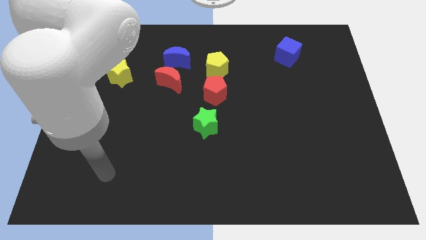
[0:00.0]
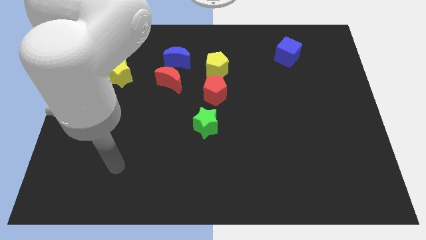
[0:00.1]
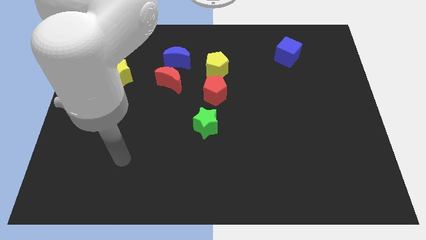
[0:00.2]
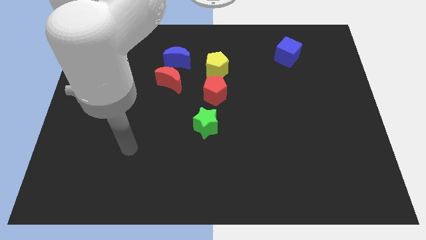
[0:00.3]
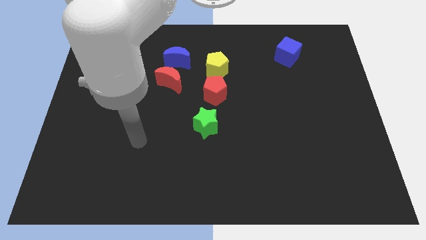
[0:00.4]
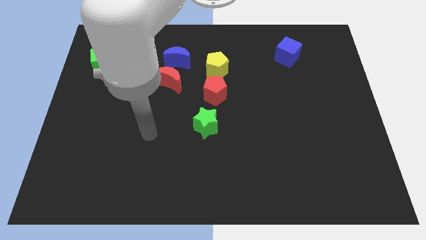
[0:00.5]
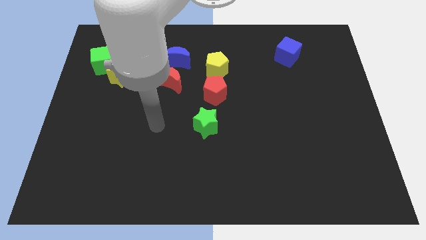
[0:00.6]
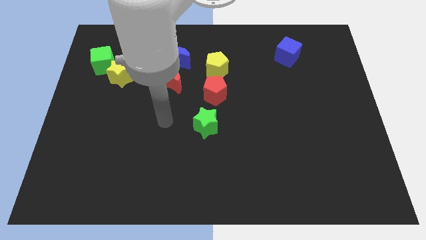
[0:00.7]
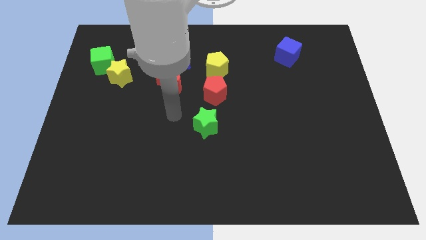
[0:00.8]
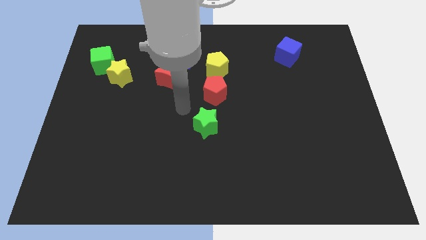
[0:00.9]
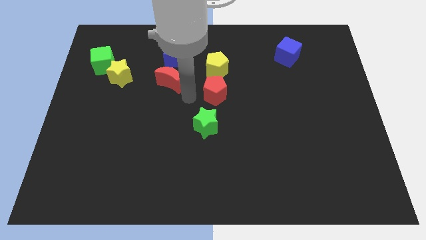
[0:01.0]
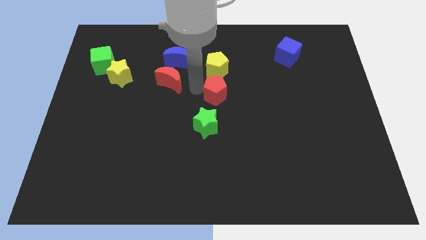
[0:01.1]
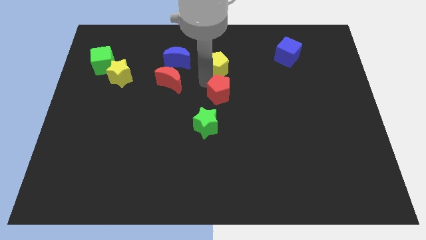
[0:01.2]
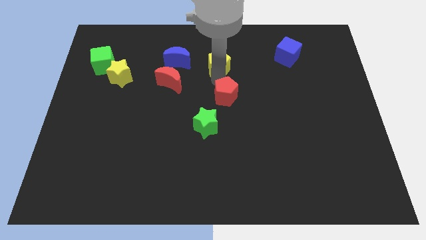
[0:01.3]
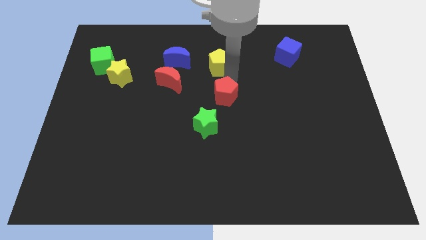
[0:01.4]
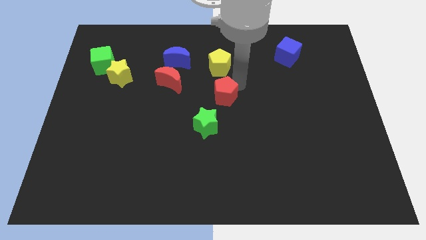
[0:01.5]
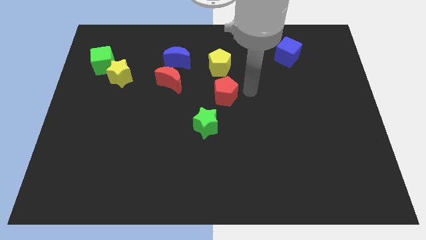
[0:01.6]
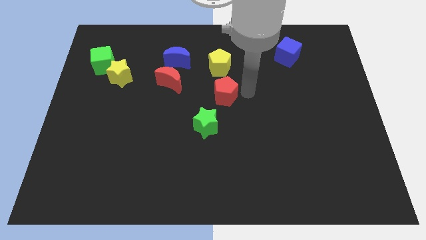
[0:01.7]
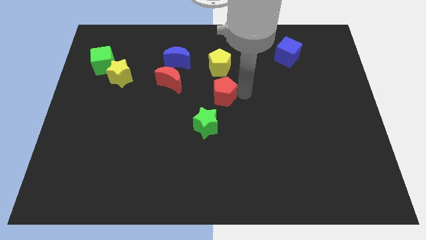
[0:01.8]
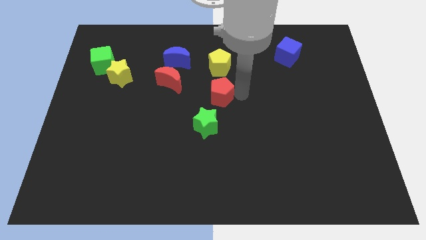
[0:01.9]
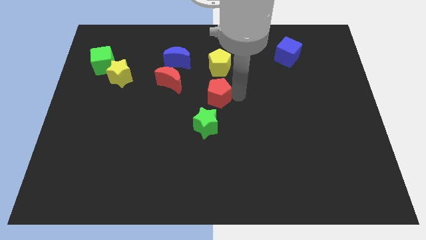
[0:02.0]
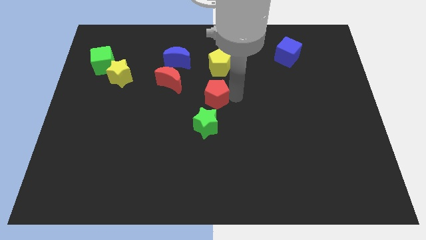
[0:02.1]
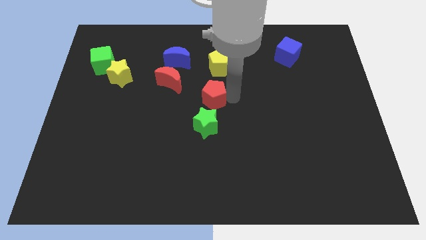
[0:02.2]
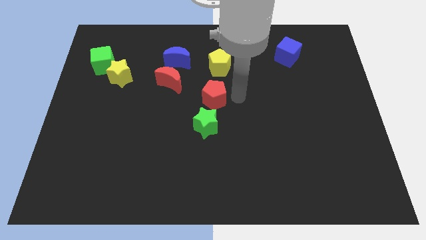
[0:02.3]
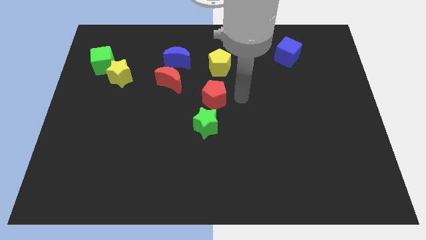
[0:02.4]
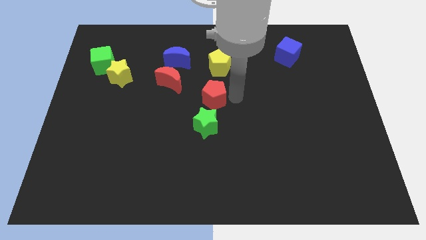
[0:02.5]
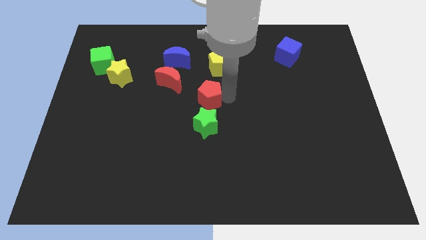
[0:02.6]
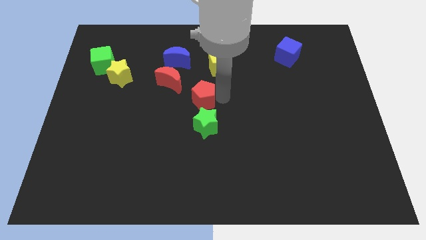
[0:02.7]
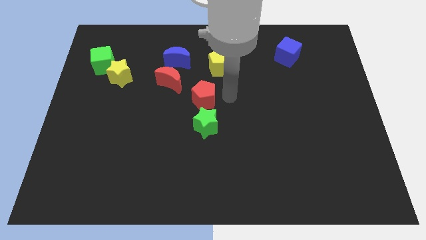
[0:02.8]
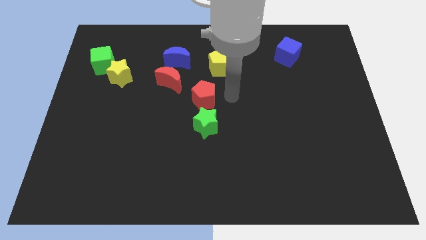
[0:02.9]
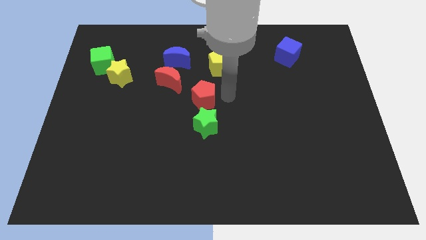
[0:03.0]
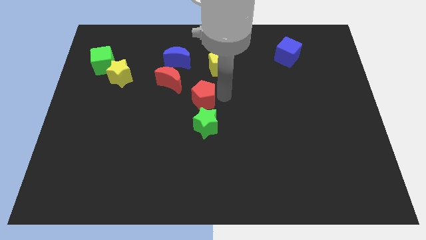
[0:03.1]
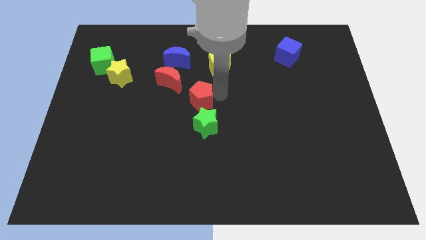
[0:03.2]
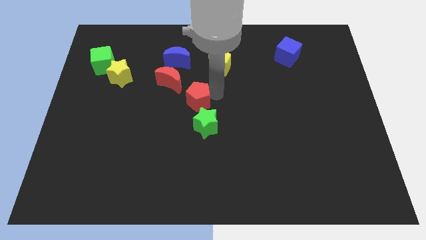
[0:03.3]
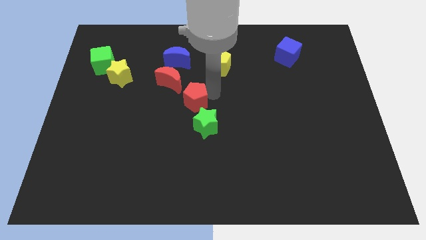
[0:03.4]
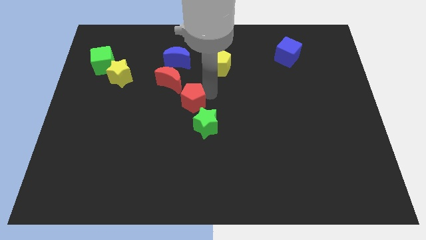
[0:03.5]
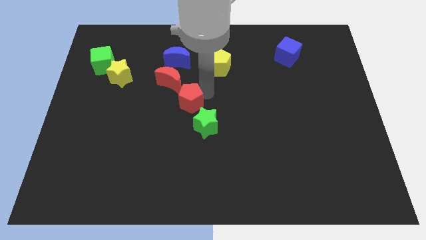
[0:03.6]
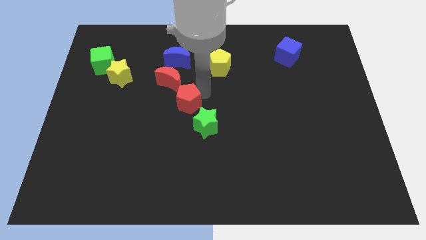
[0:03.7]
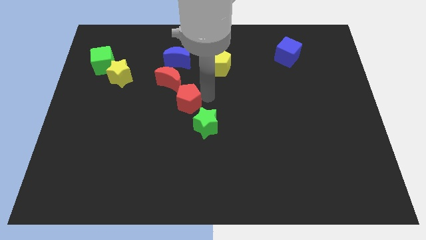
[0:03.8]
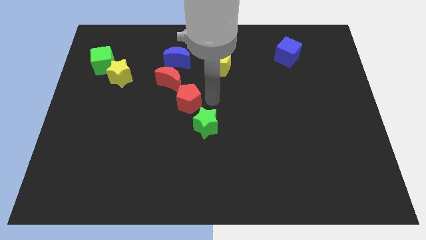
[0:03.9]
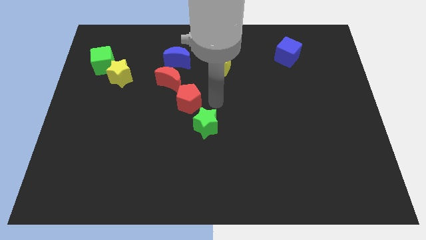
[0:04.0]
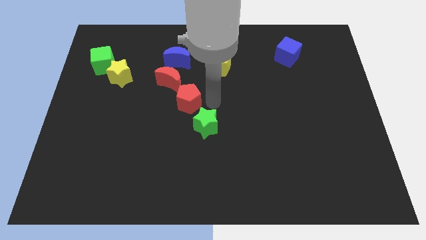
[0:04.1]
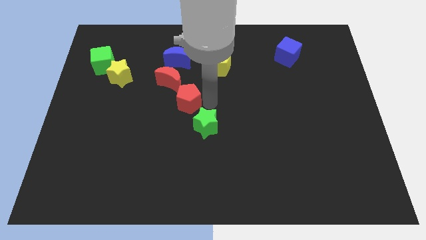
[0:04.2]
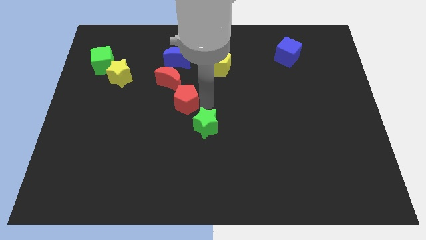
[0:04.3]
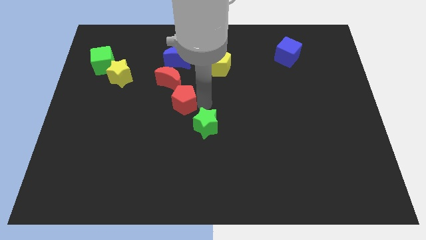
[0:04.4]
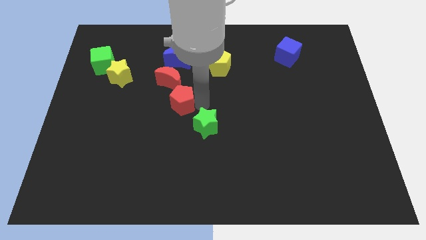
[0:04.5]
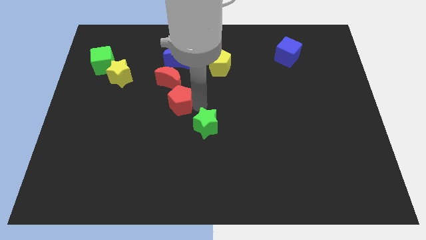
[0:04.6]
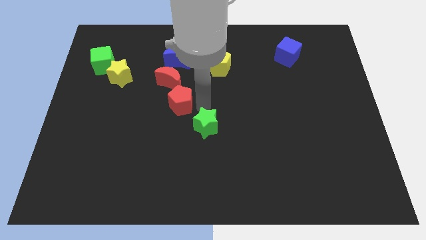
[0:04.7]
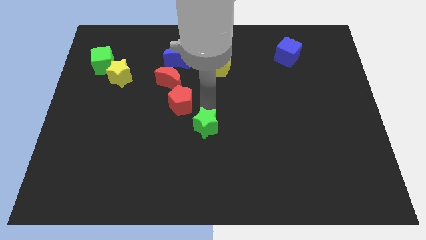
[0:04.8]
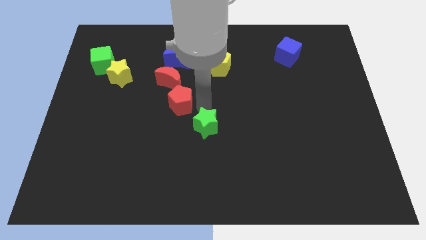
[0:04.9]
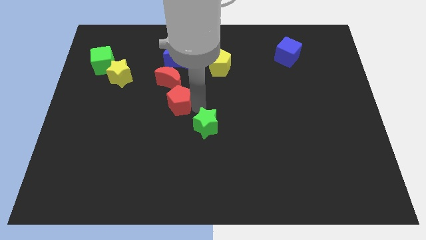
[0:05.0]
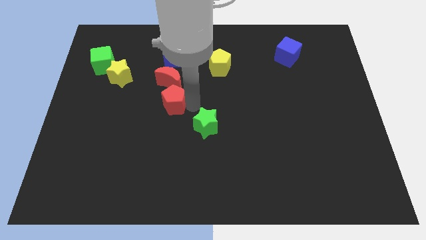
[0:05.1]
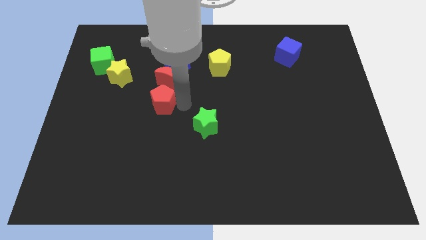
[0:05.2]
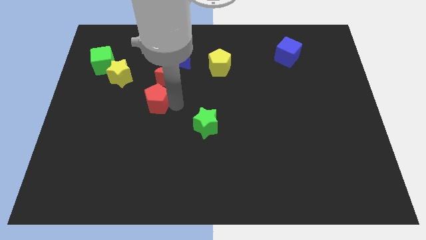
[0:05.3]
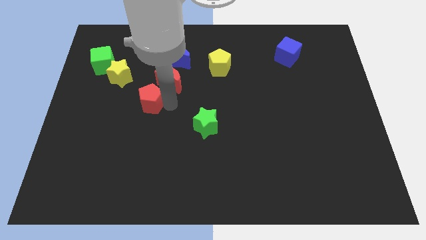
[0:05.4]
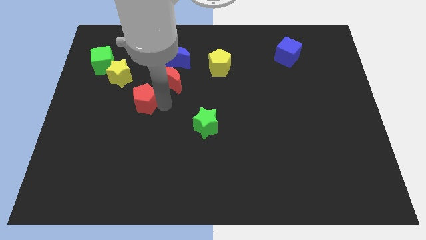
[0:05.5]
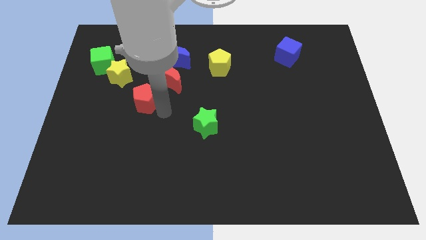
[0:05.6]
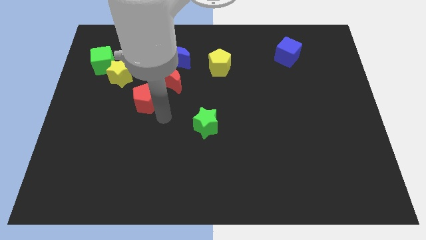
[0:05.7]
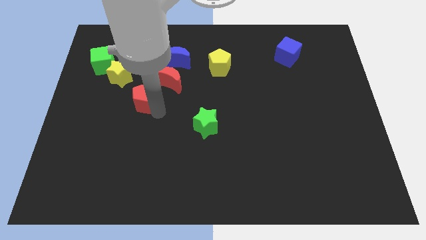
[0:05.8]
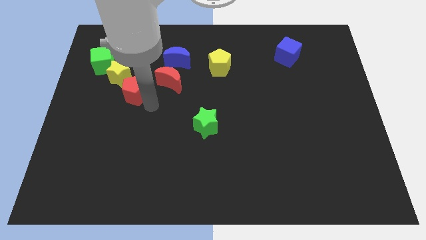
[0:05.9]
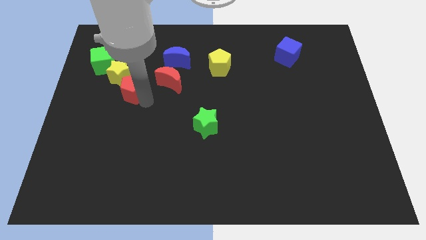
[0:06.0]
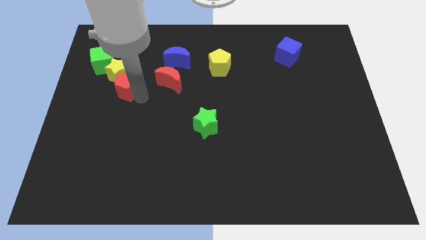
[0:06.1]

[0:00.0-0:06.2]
move the red pentagon towards the yellow star
